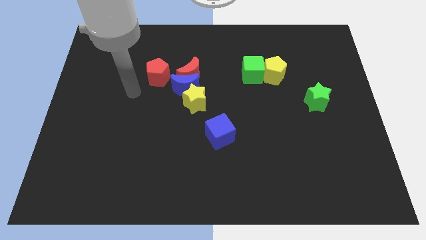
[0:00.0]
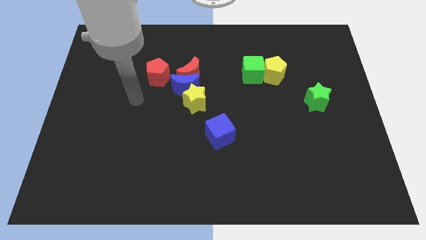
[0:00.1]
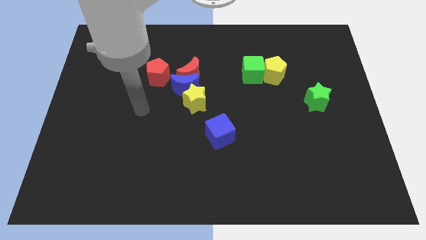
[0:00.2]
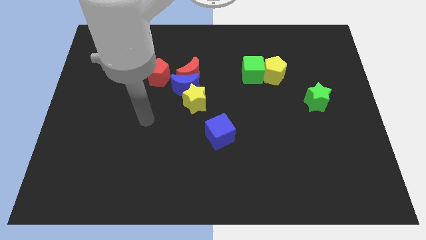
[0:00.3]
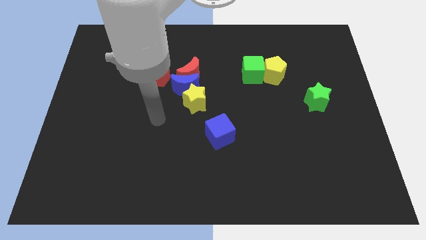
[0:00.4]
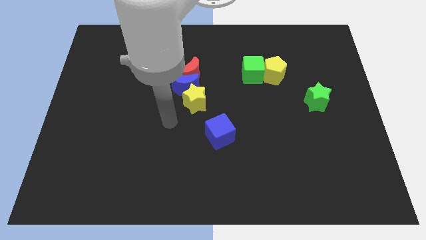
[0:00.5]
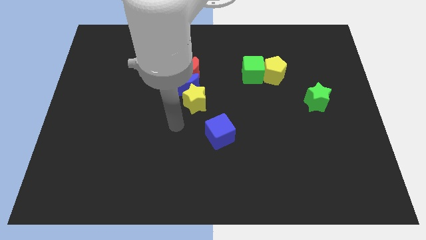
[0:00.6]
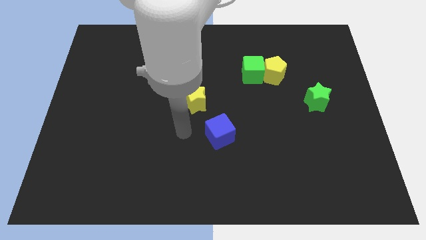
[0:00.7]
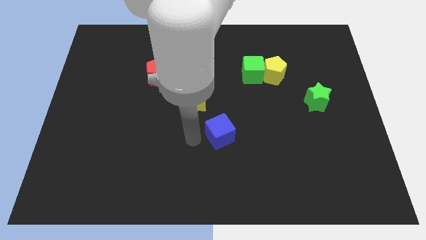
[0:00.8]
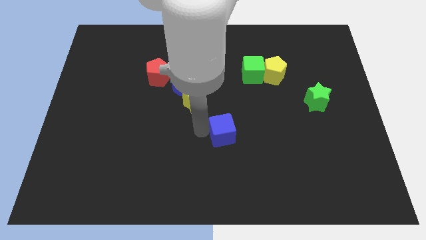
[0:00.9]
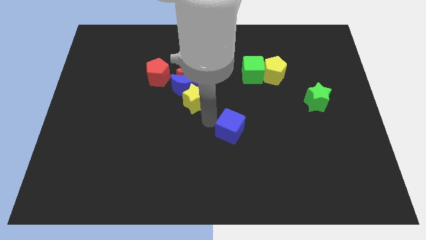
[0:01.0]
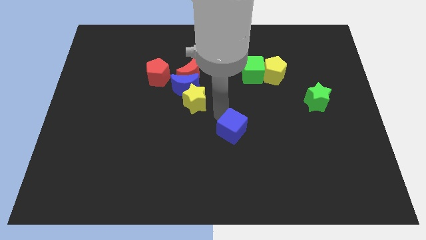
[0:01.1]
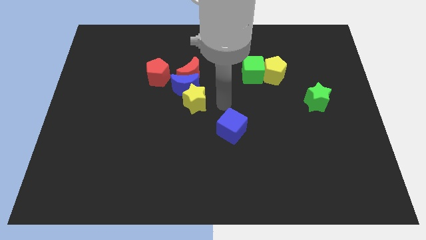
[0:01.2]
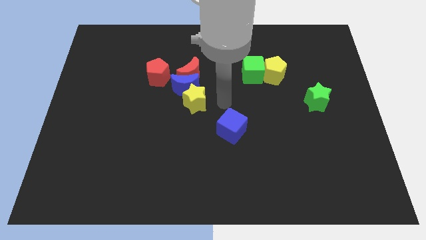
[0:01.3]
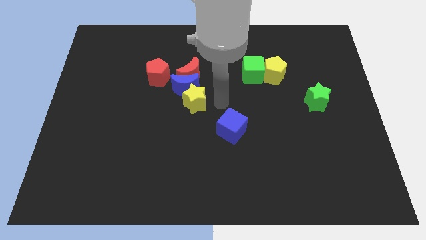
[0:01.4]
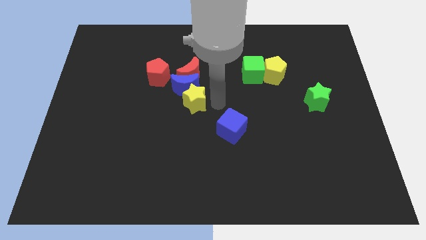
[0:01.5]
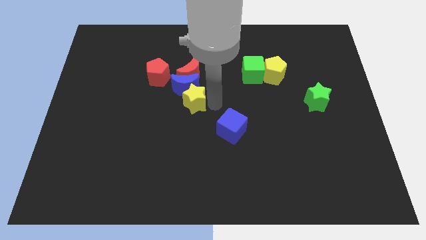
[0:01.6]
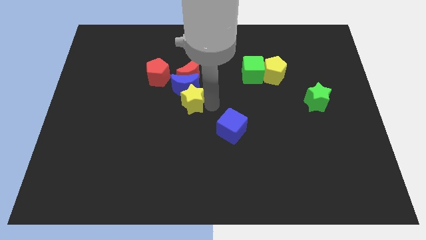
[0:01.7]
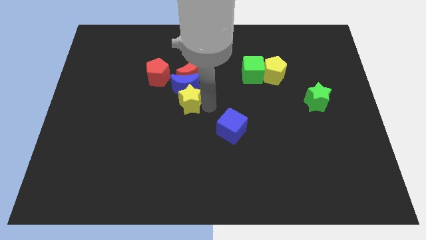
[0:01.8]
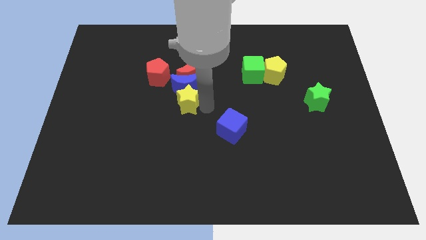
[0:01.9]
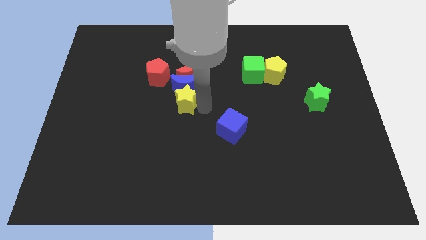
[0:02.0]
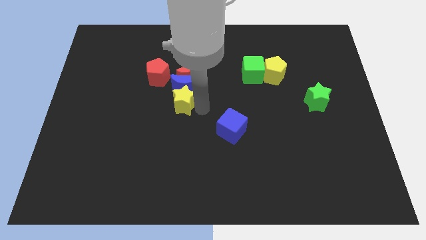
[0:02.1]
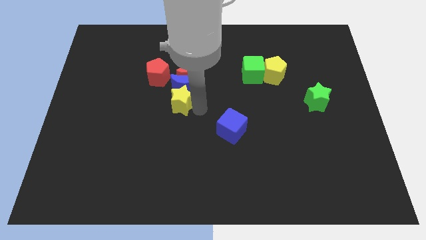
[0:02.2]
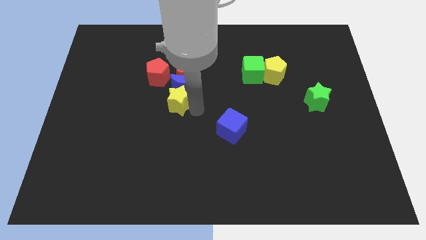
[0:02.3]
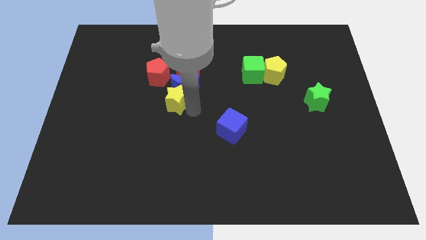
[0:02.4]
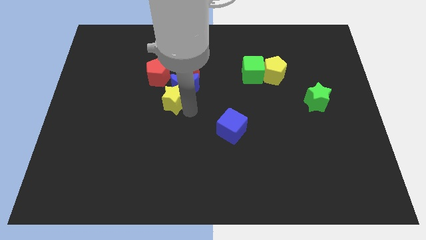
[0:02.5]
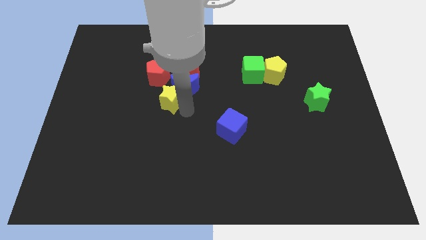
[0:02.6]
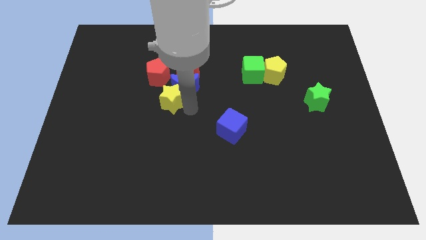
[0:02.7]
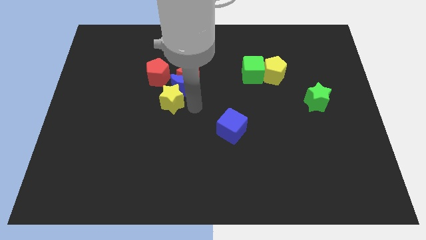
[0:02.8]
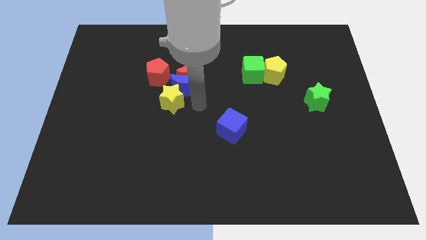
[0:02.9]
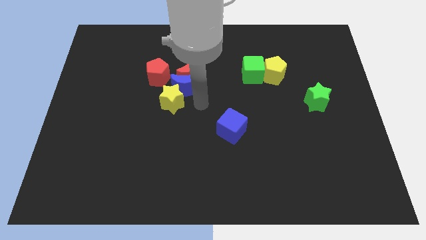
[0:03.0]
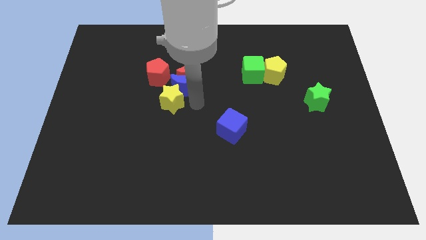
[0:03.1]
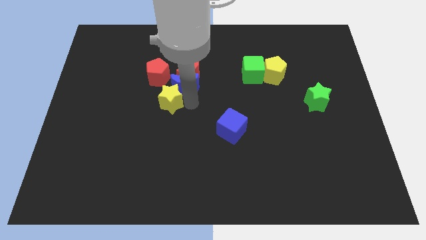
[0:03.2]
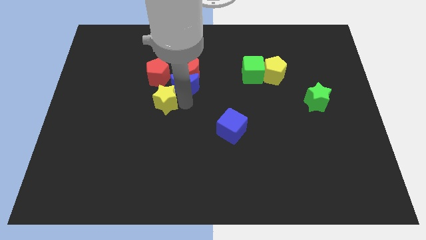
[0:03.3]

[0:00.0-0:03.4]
move the yellow star to the left a bit

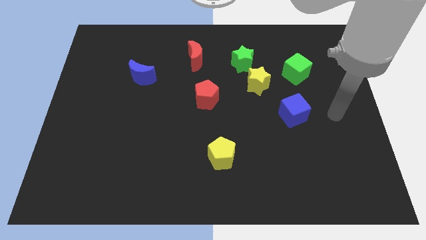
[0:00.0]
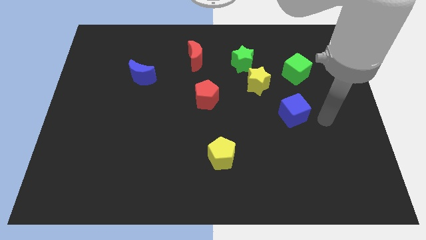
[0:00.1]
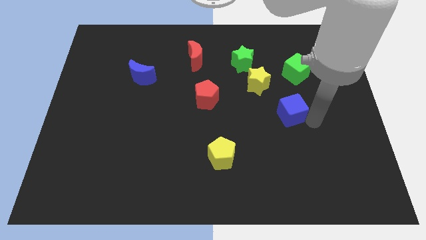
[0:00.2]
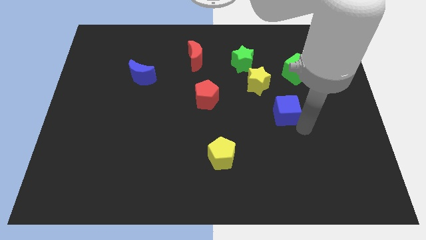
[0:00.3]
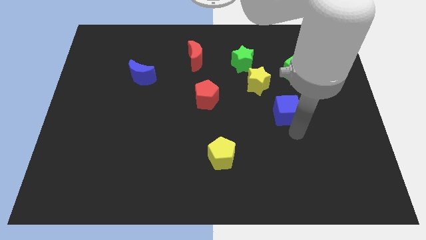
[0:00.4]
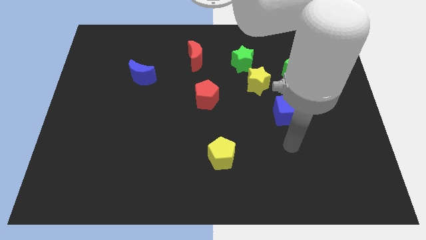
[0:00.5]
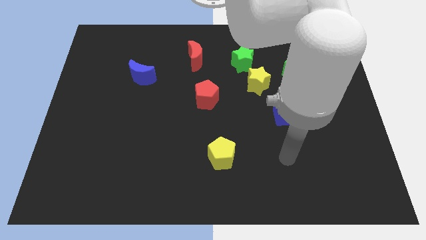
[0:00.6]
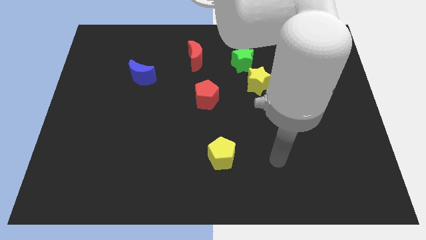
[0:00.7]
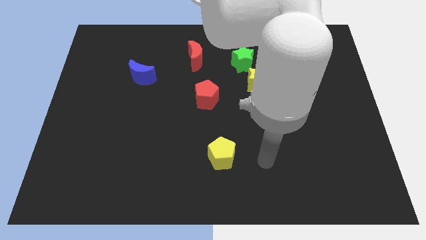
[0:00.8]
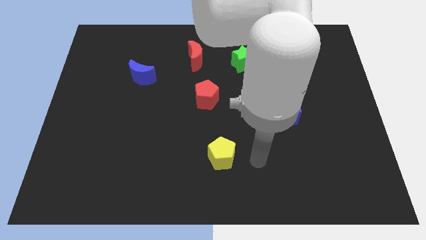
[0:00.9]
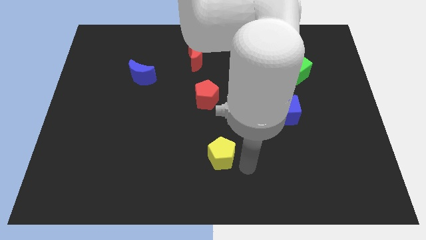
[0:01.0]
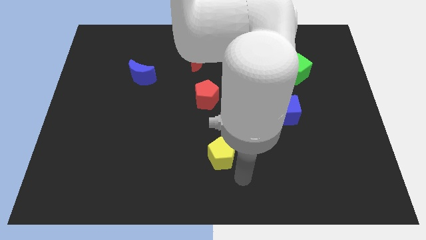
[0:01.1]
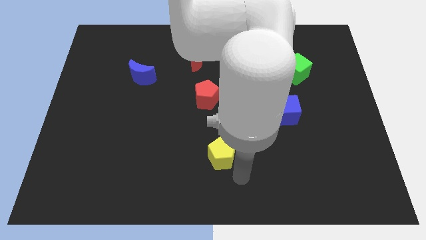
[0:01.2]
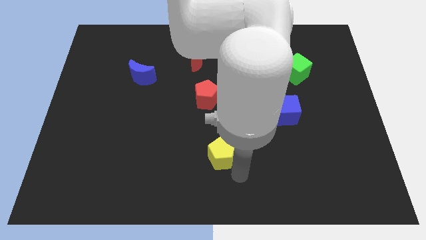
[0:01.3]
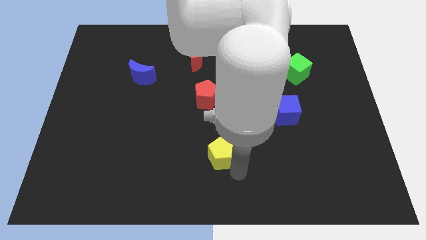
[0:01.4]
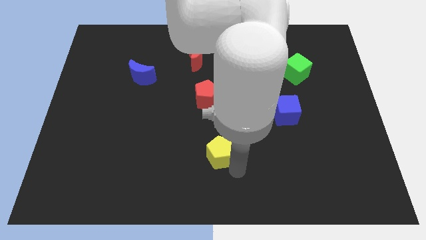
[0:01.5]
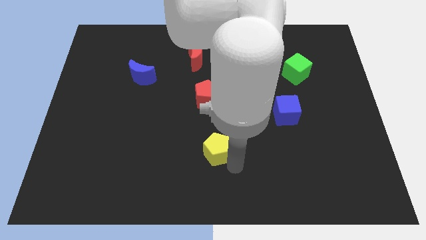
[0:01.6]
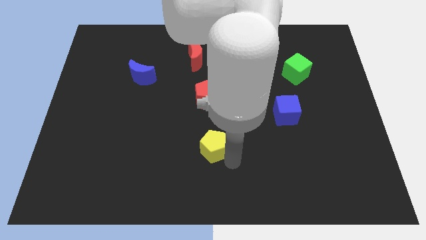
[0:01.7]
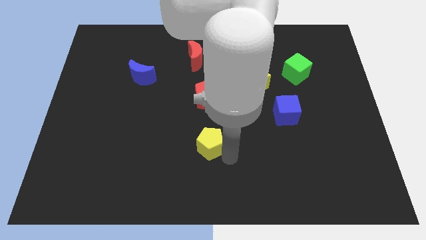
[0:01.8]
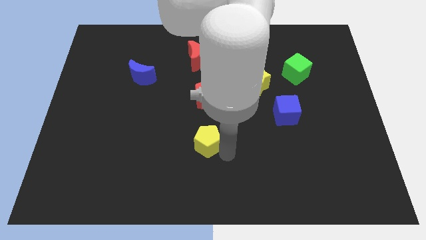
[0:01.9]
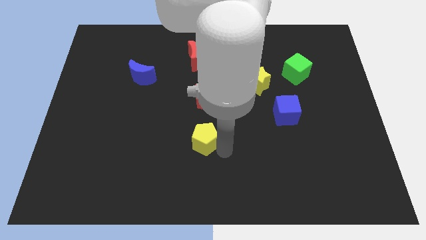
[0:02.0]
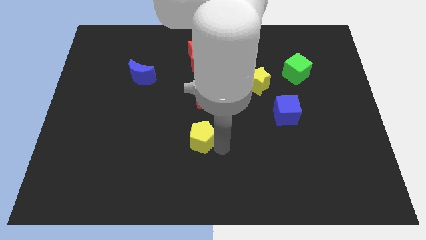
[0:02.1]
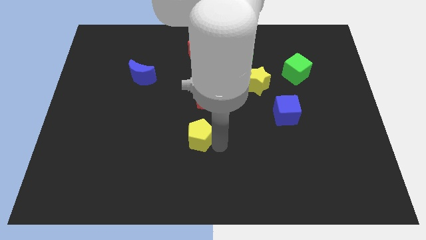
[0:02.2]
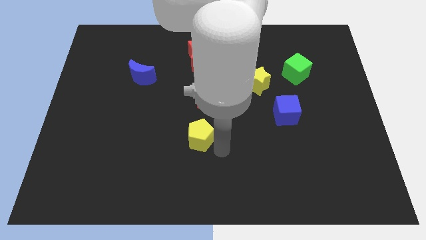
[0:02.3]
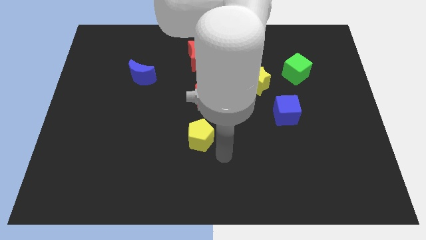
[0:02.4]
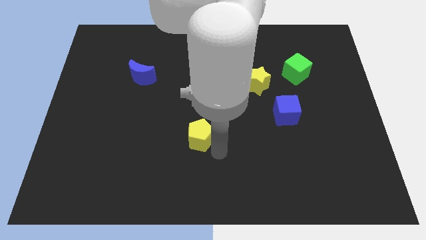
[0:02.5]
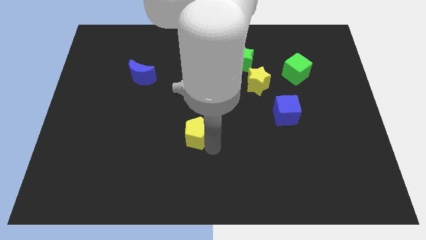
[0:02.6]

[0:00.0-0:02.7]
slide the yellow pentagon upwards and then to the left a little

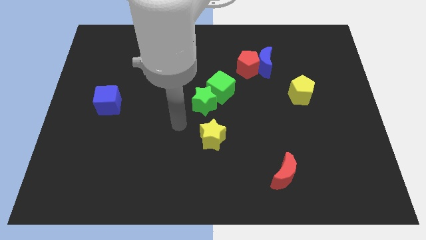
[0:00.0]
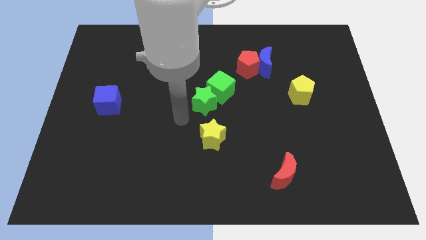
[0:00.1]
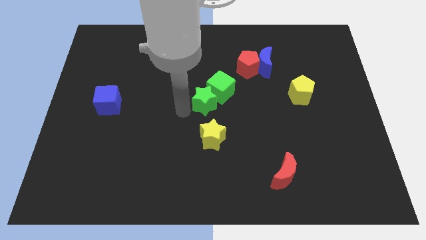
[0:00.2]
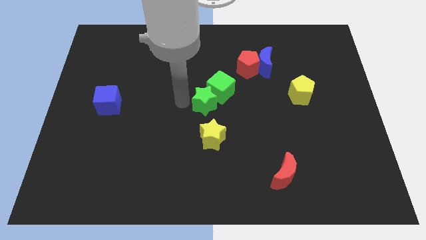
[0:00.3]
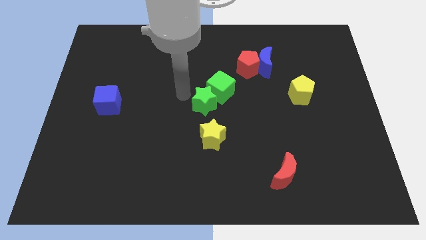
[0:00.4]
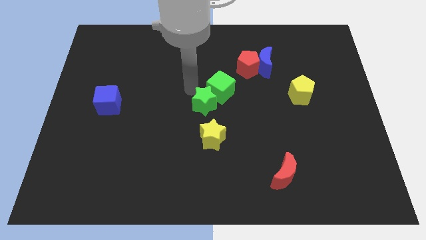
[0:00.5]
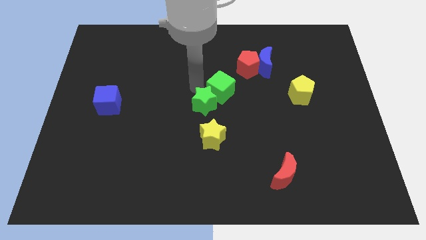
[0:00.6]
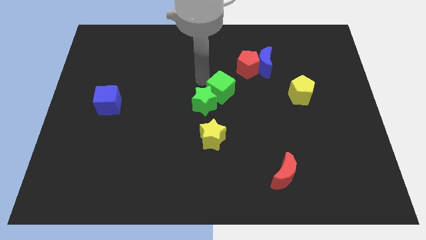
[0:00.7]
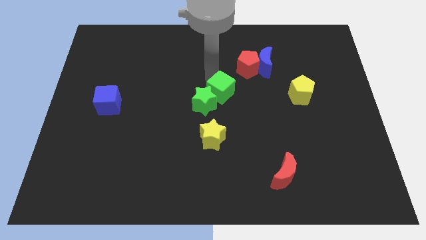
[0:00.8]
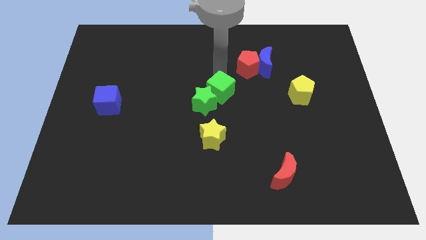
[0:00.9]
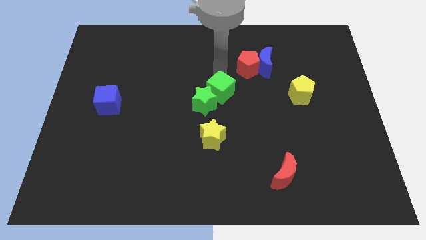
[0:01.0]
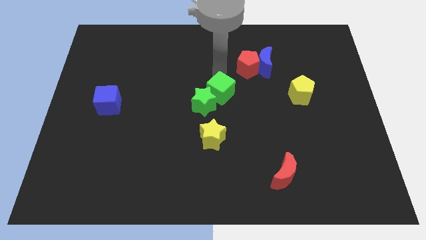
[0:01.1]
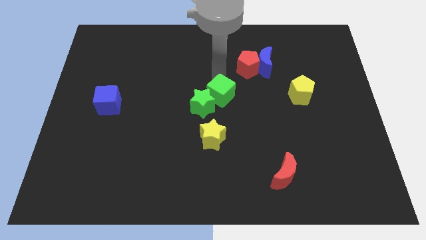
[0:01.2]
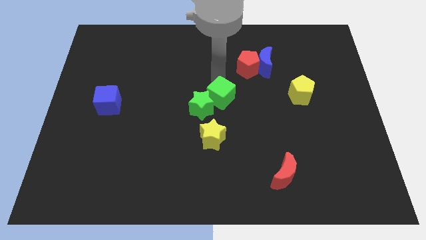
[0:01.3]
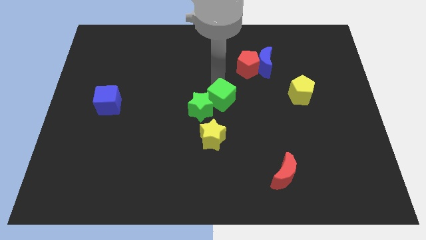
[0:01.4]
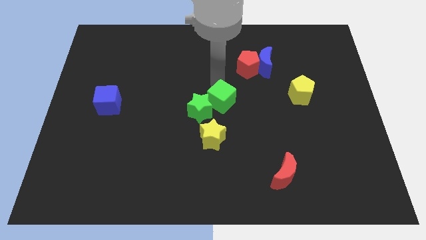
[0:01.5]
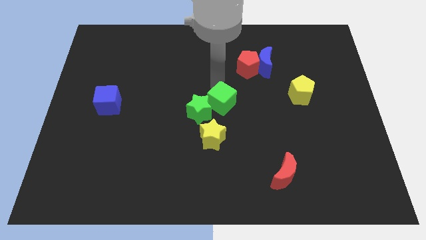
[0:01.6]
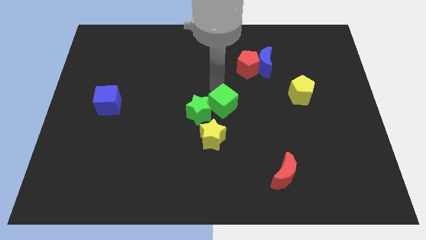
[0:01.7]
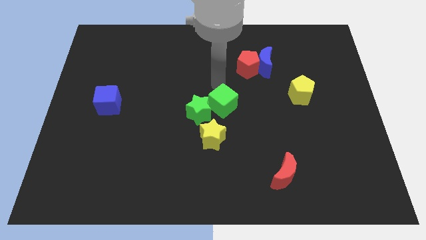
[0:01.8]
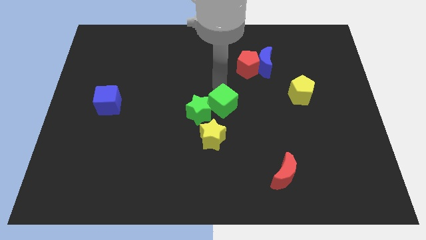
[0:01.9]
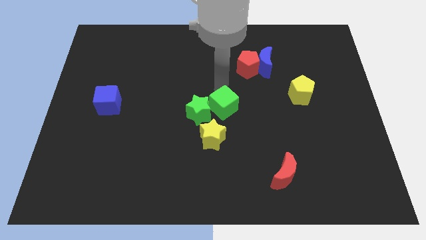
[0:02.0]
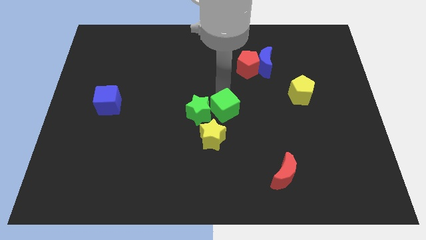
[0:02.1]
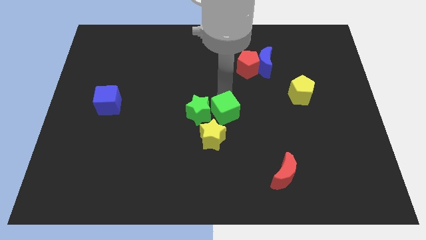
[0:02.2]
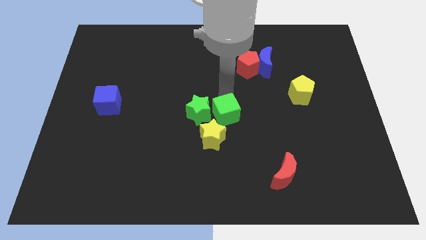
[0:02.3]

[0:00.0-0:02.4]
slide the green cube somewhat down
